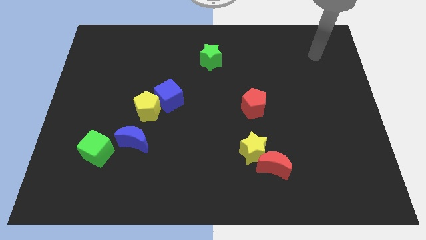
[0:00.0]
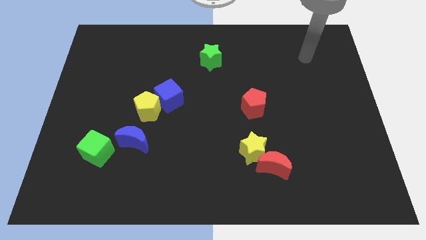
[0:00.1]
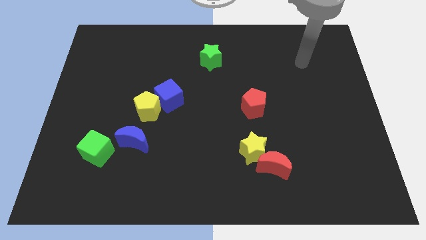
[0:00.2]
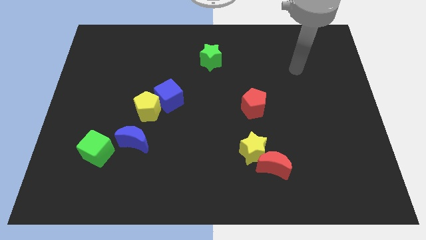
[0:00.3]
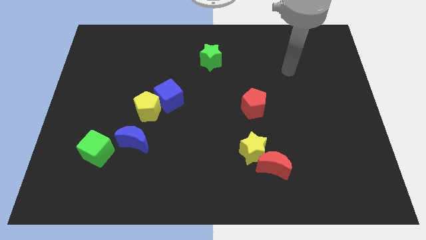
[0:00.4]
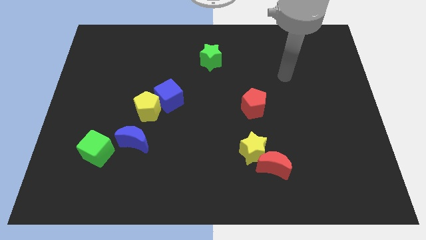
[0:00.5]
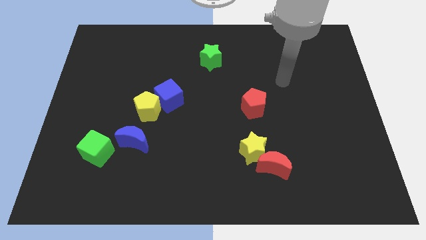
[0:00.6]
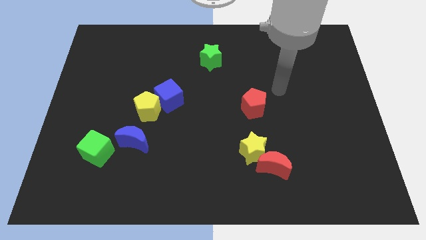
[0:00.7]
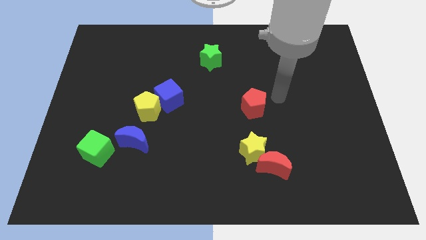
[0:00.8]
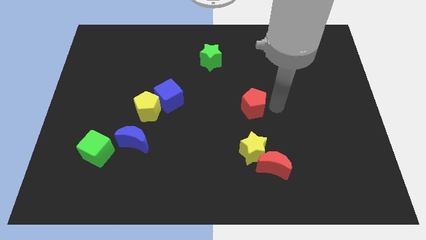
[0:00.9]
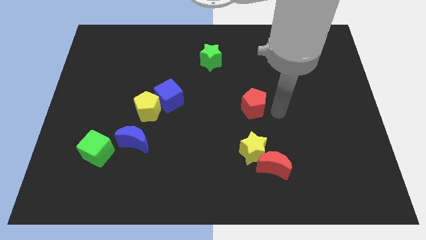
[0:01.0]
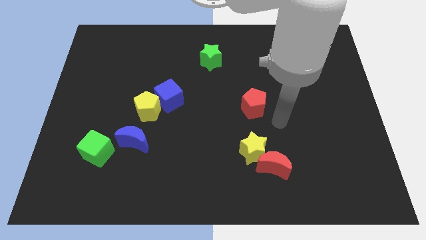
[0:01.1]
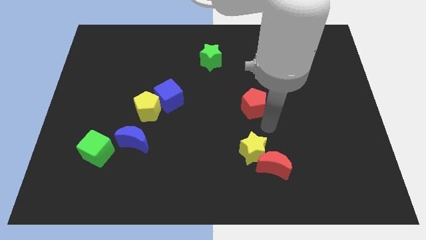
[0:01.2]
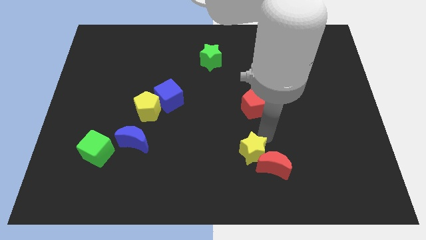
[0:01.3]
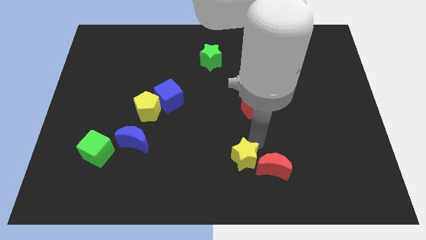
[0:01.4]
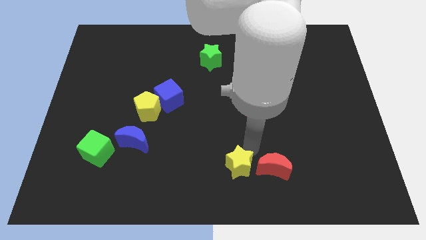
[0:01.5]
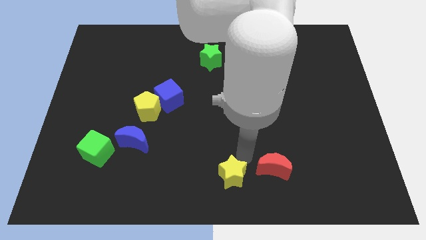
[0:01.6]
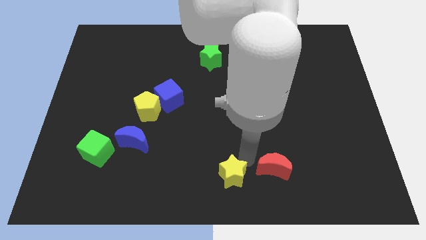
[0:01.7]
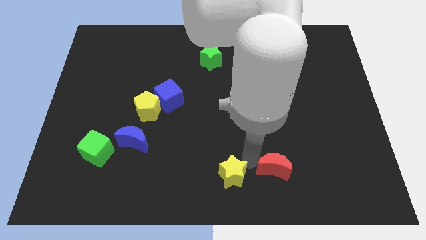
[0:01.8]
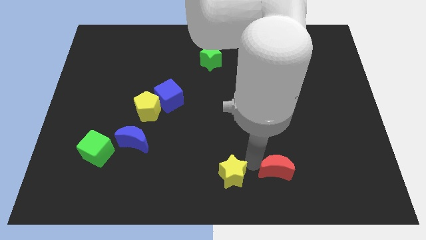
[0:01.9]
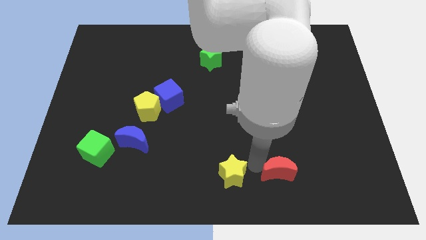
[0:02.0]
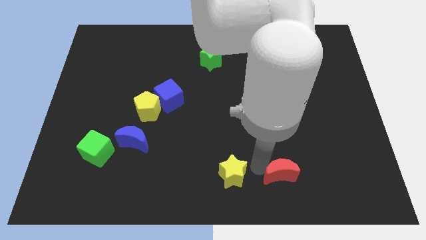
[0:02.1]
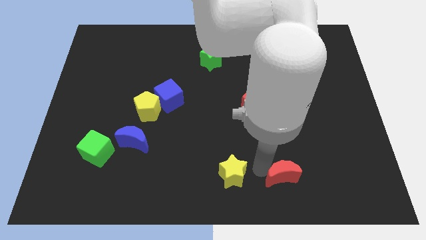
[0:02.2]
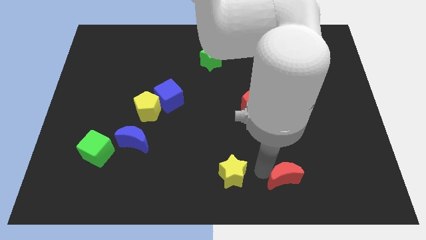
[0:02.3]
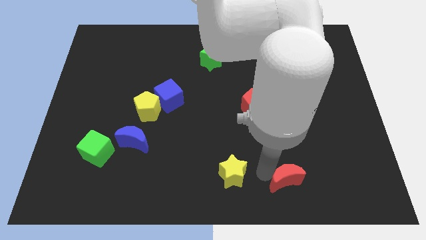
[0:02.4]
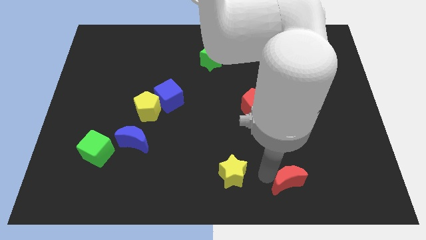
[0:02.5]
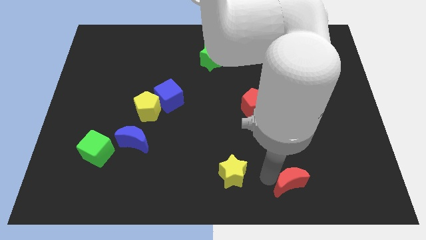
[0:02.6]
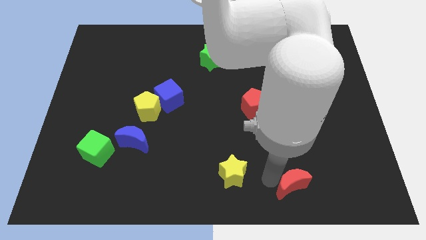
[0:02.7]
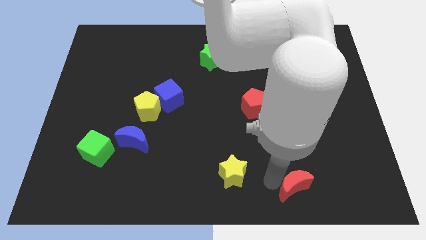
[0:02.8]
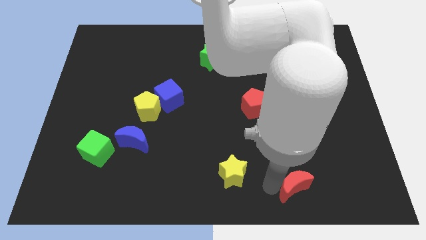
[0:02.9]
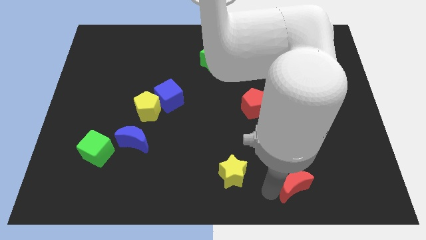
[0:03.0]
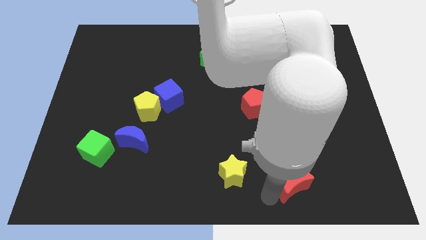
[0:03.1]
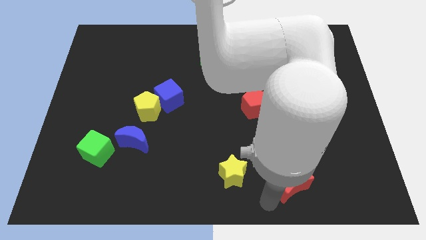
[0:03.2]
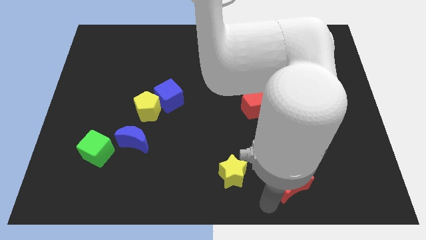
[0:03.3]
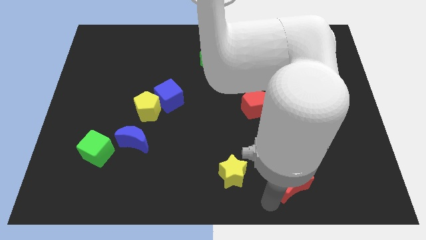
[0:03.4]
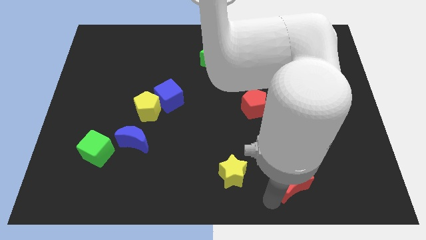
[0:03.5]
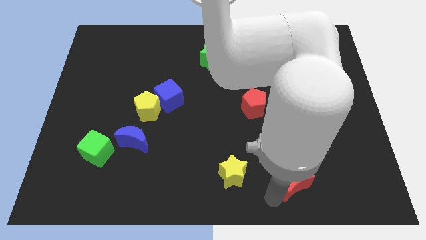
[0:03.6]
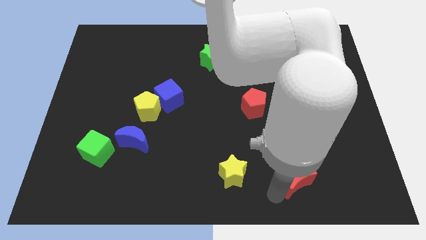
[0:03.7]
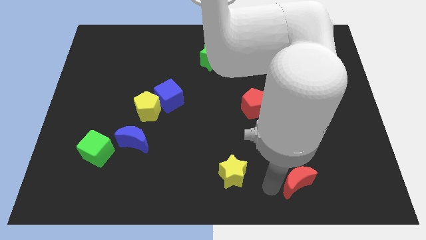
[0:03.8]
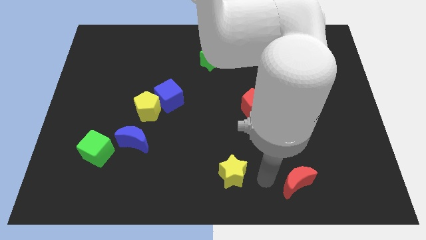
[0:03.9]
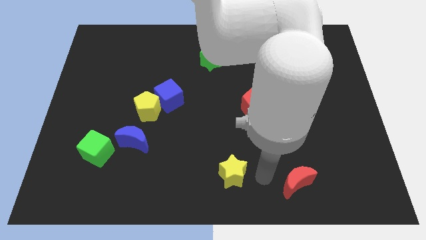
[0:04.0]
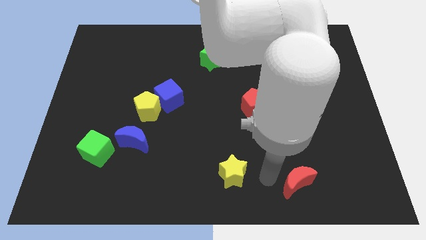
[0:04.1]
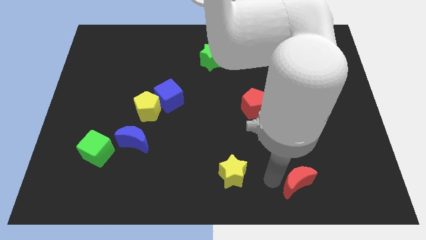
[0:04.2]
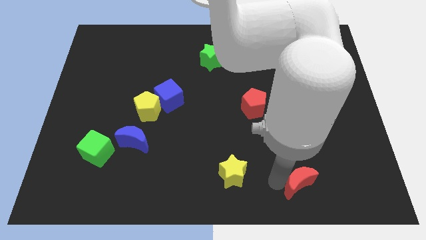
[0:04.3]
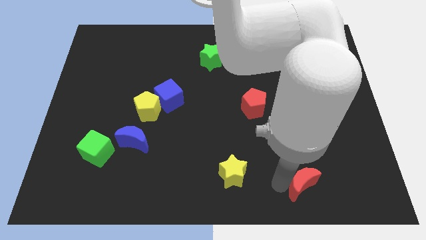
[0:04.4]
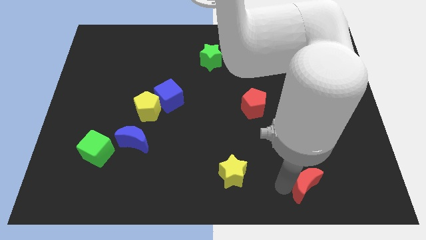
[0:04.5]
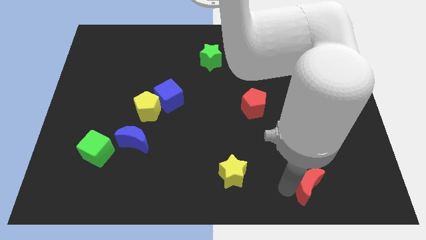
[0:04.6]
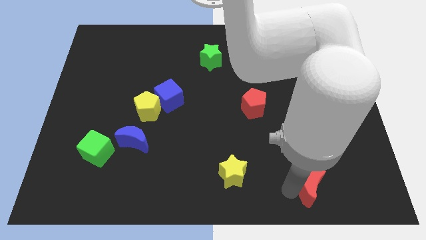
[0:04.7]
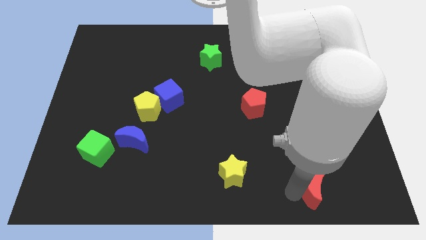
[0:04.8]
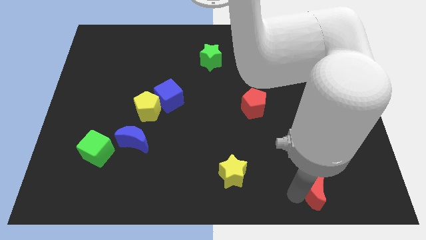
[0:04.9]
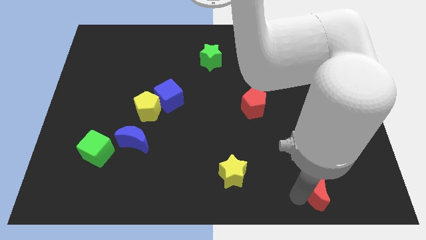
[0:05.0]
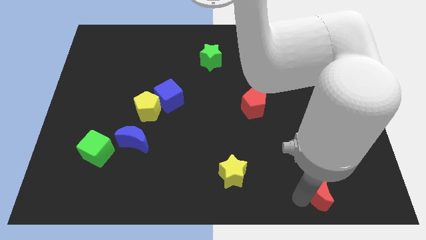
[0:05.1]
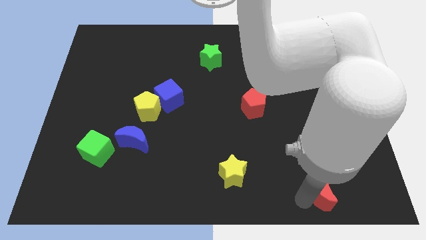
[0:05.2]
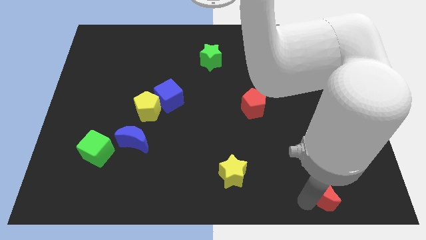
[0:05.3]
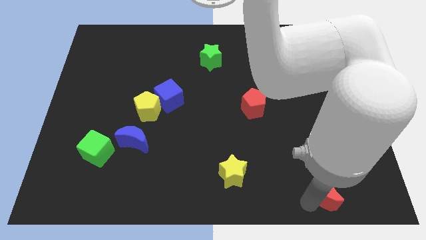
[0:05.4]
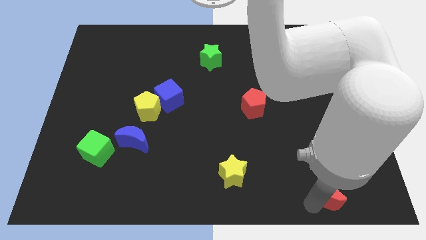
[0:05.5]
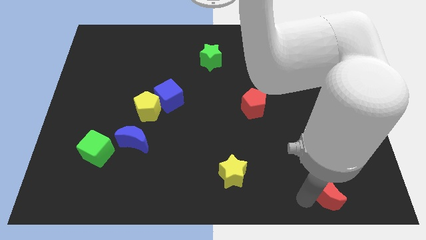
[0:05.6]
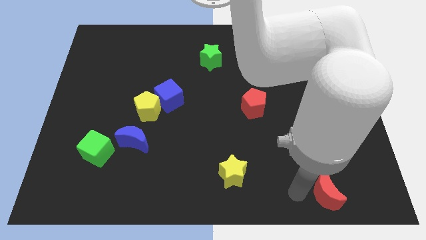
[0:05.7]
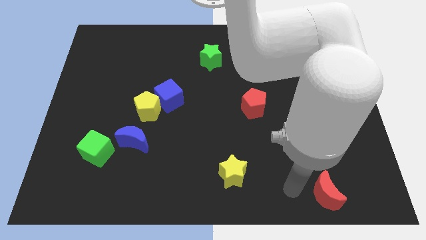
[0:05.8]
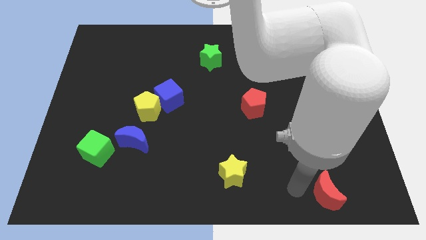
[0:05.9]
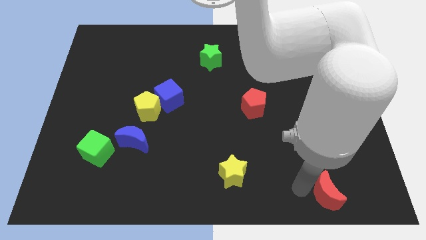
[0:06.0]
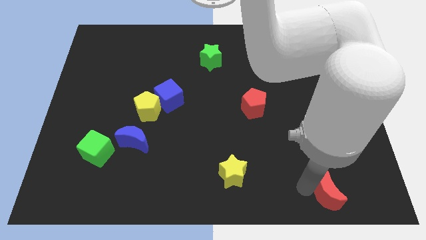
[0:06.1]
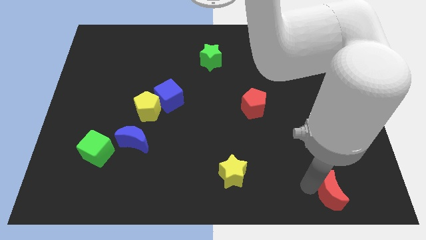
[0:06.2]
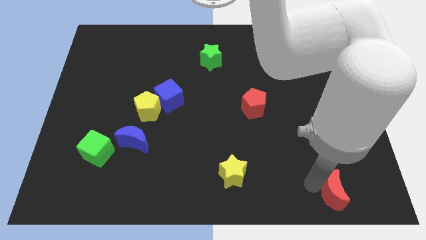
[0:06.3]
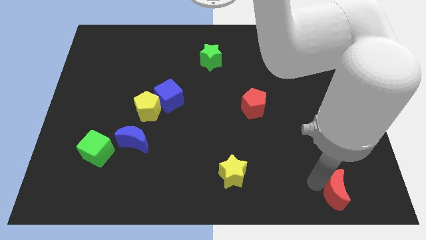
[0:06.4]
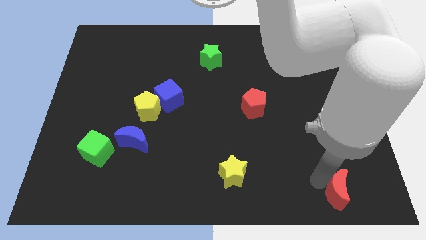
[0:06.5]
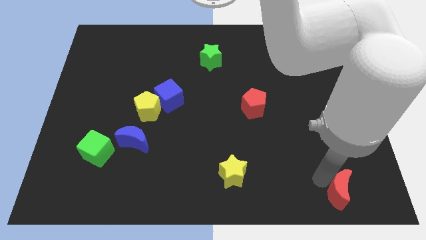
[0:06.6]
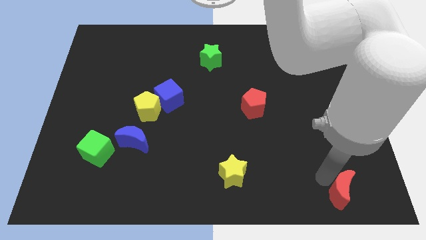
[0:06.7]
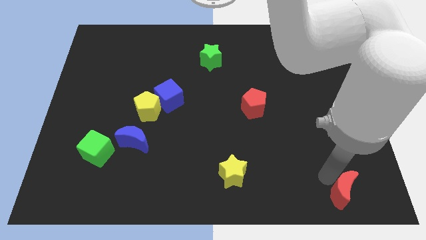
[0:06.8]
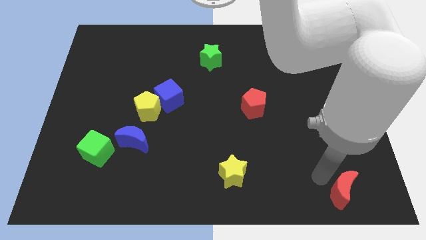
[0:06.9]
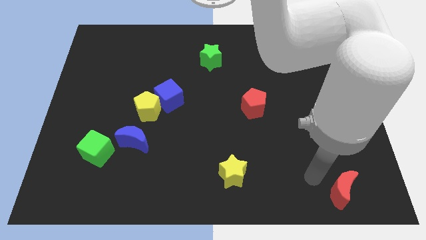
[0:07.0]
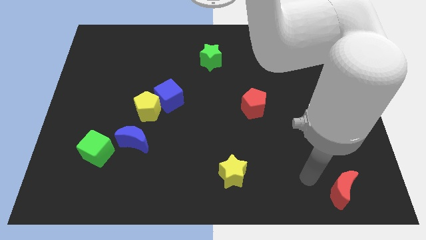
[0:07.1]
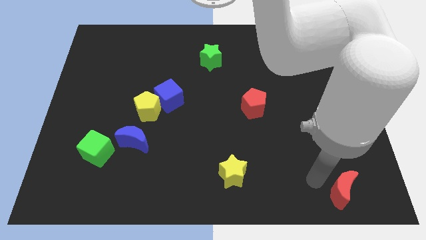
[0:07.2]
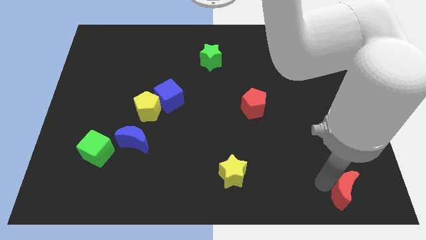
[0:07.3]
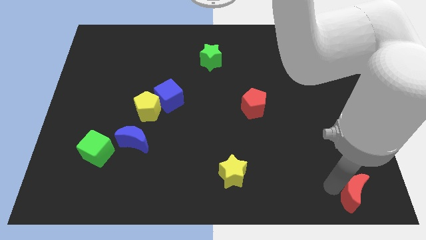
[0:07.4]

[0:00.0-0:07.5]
move the red moon to the bottom right of the board
